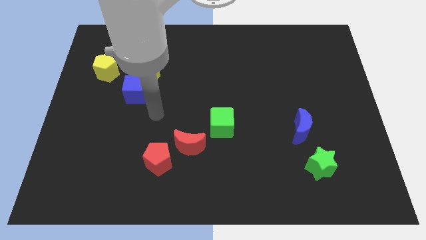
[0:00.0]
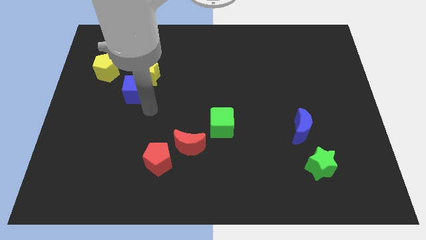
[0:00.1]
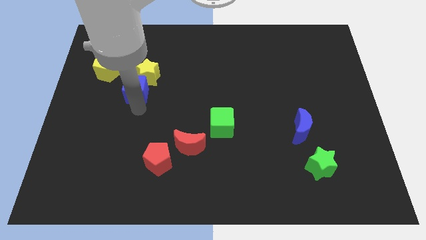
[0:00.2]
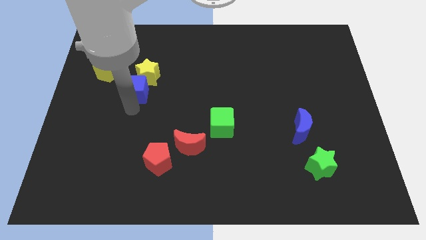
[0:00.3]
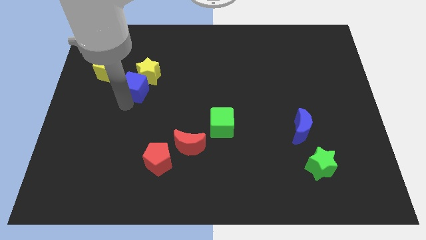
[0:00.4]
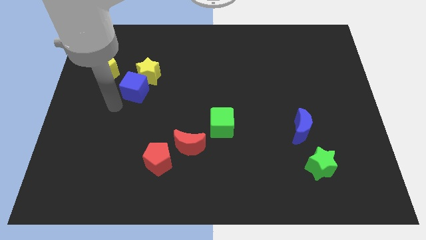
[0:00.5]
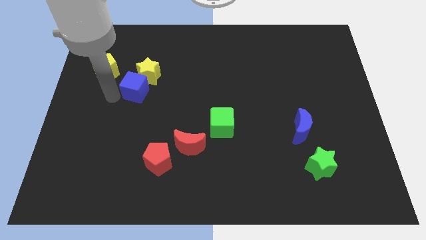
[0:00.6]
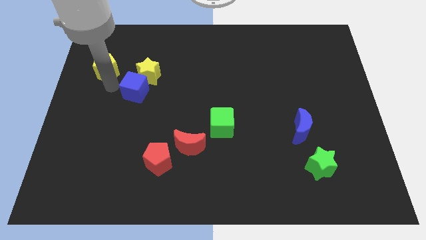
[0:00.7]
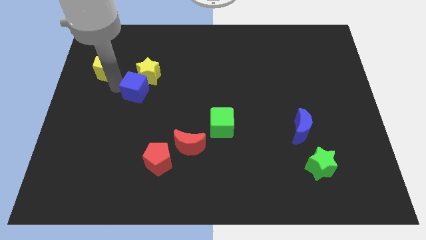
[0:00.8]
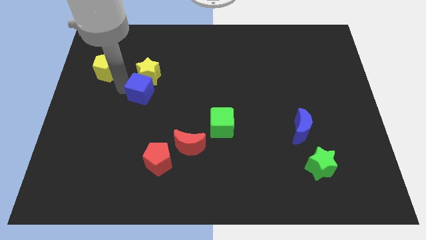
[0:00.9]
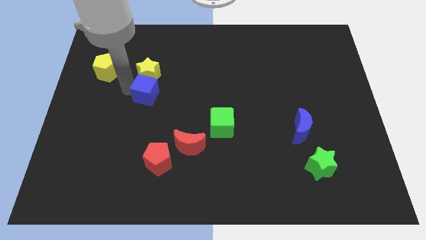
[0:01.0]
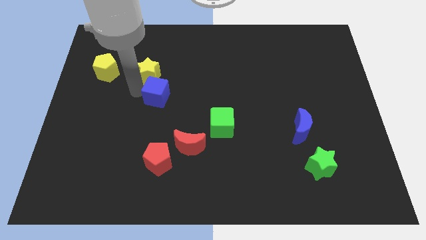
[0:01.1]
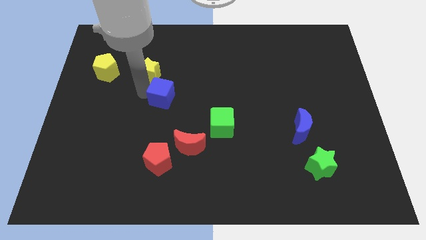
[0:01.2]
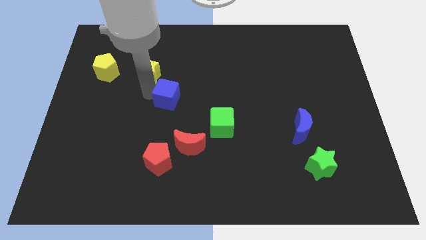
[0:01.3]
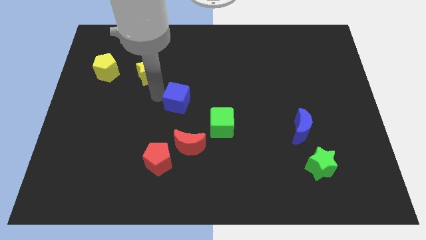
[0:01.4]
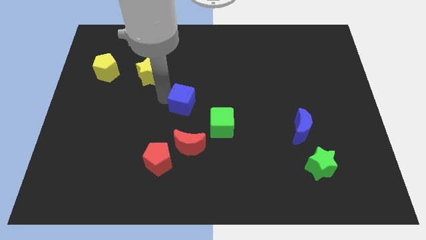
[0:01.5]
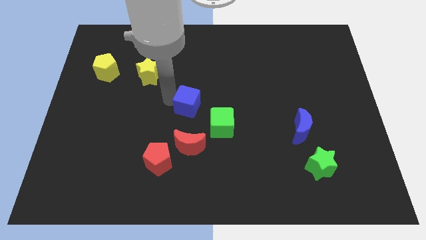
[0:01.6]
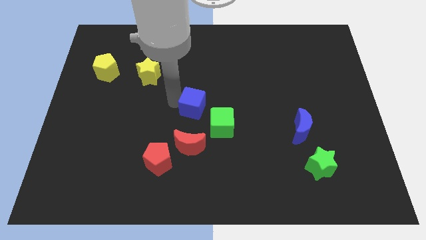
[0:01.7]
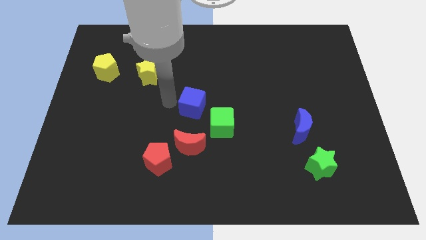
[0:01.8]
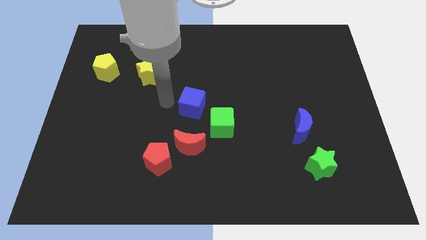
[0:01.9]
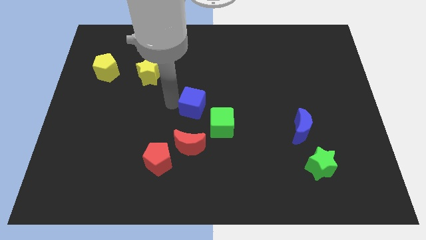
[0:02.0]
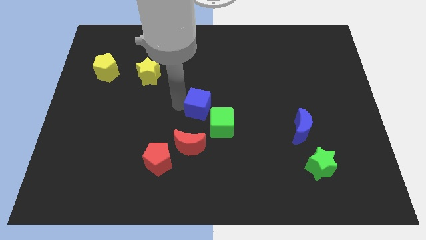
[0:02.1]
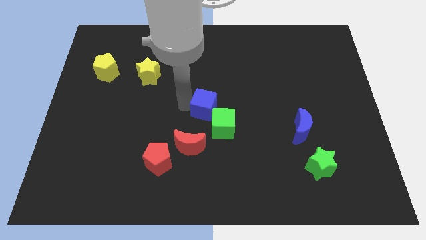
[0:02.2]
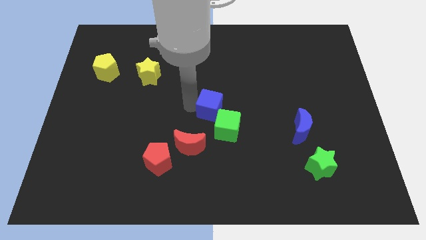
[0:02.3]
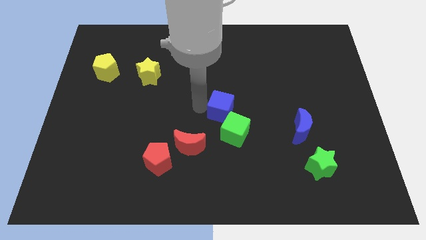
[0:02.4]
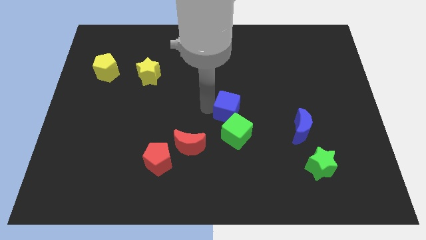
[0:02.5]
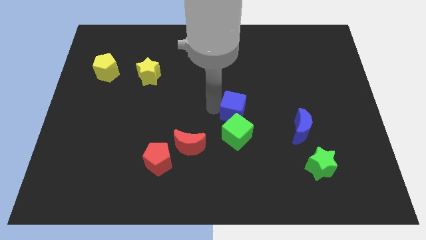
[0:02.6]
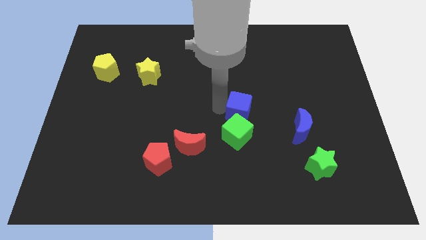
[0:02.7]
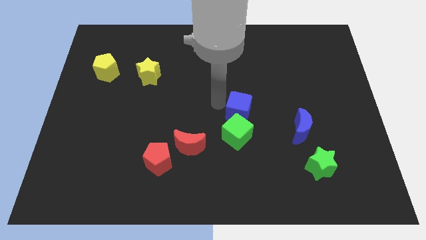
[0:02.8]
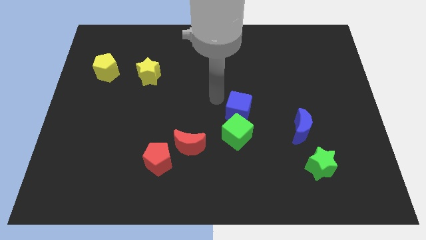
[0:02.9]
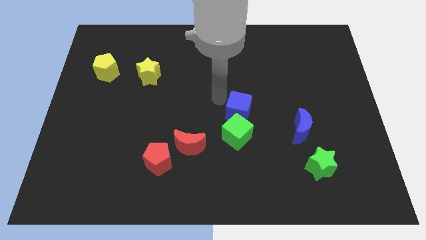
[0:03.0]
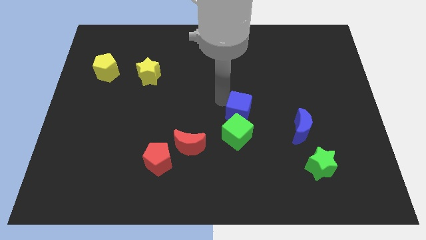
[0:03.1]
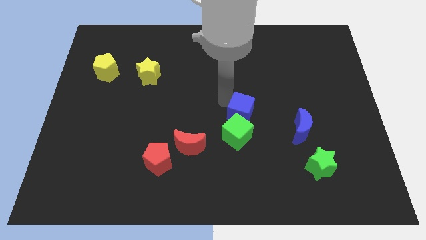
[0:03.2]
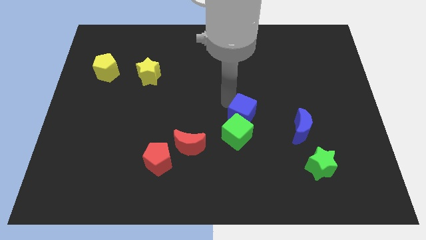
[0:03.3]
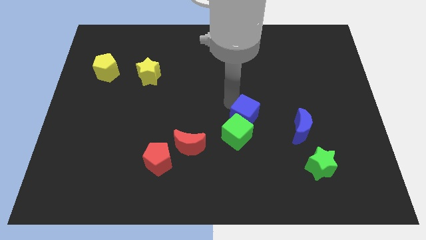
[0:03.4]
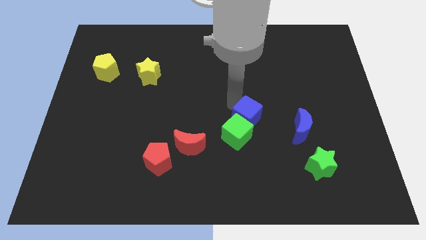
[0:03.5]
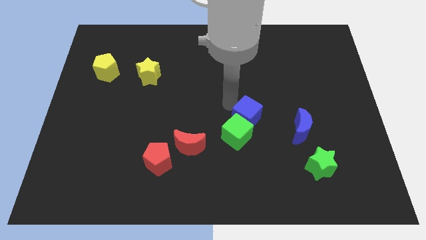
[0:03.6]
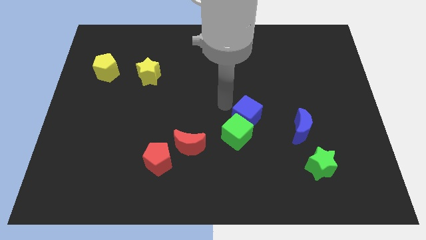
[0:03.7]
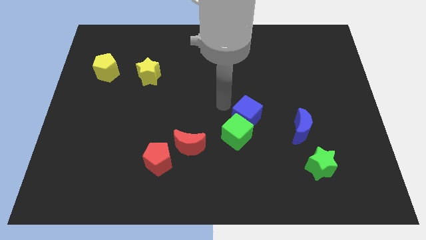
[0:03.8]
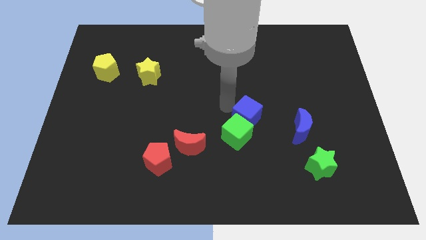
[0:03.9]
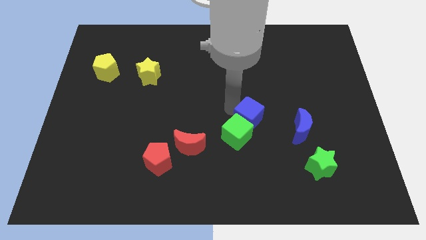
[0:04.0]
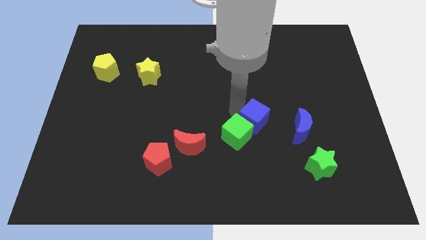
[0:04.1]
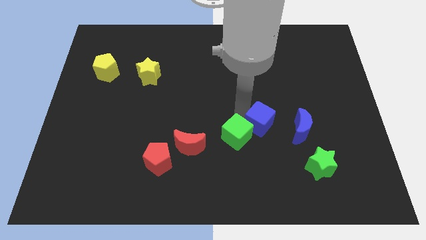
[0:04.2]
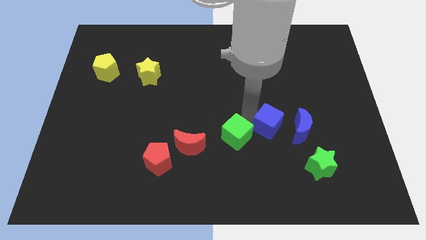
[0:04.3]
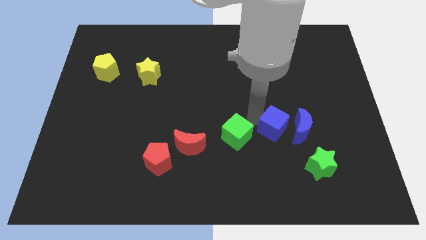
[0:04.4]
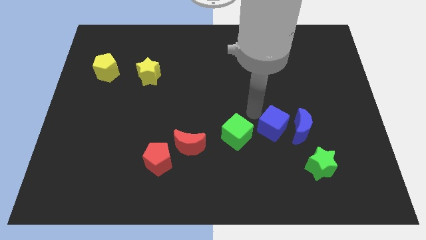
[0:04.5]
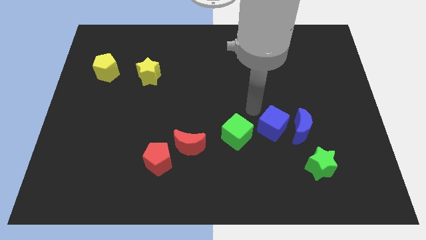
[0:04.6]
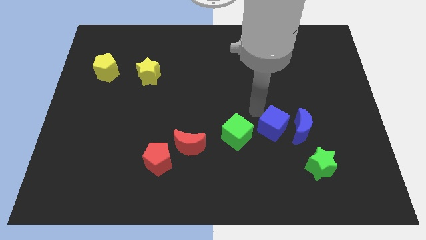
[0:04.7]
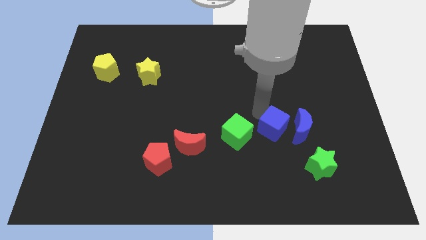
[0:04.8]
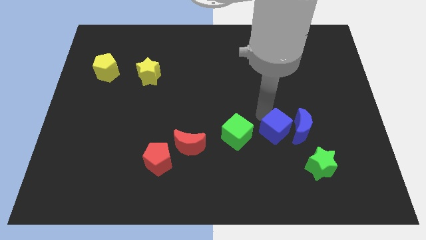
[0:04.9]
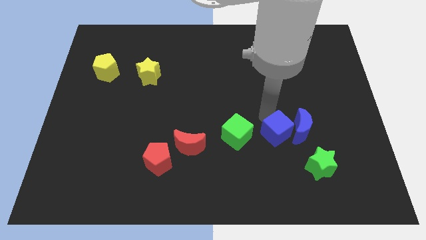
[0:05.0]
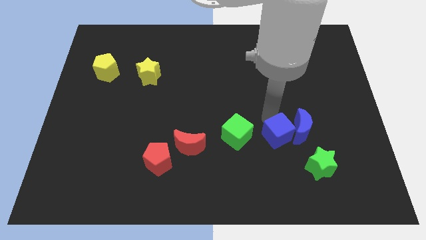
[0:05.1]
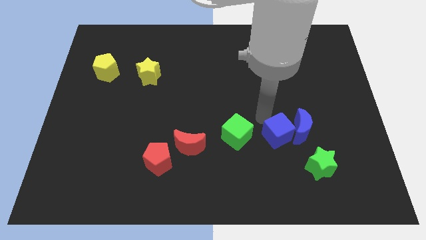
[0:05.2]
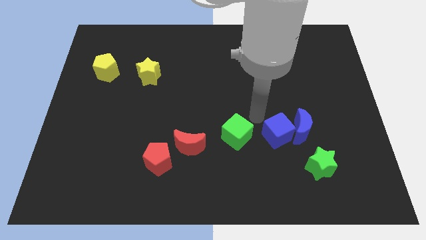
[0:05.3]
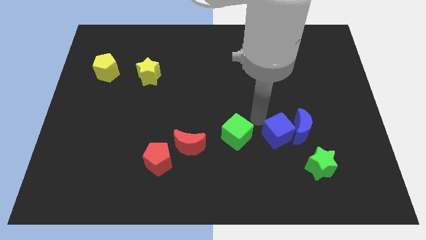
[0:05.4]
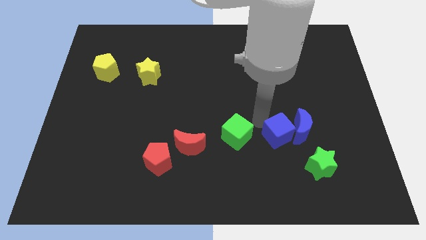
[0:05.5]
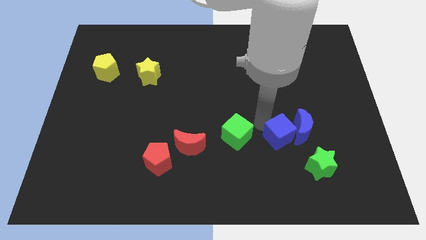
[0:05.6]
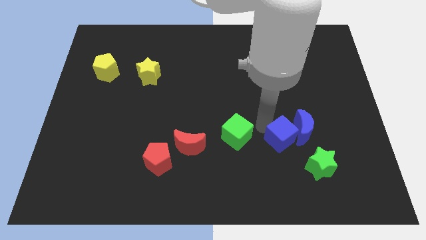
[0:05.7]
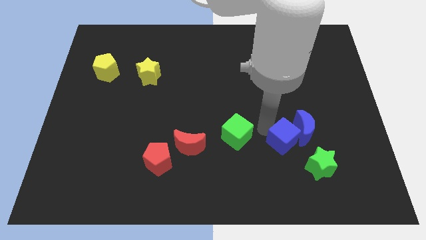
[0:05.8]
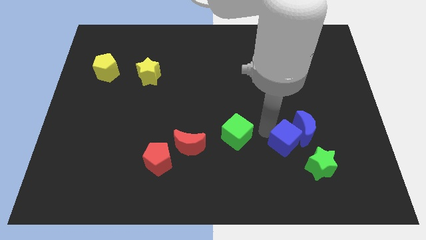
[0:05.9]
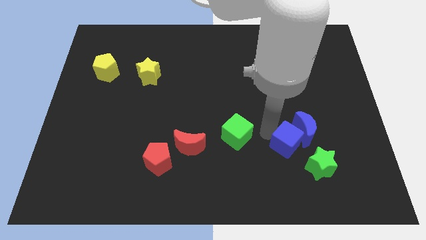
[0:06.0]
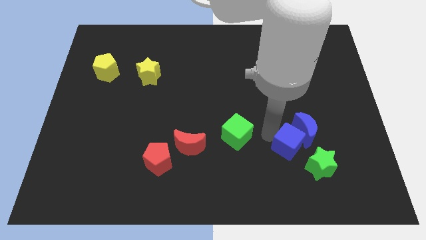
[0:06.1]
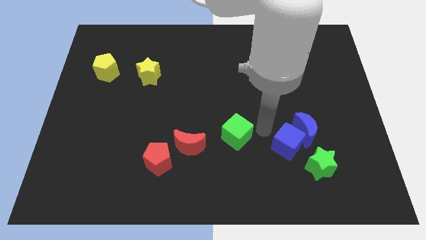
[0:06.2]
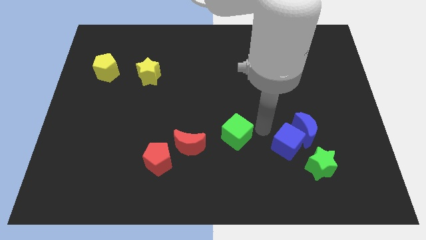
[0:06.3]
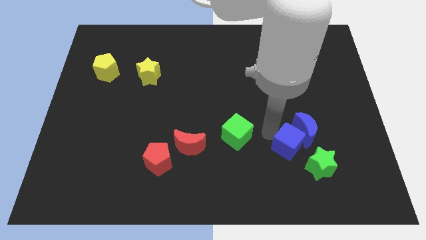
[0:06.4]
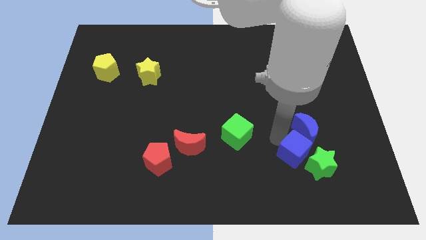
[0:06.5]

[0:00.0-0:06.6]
slide the blue cube towards the green star

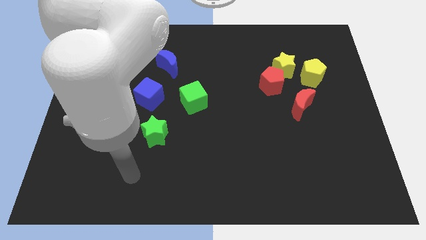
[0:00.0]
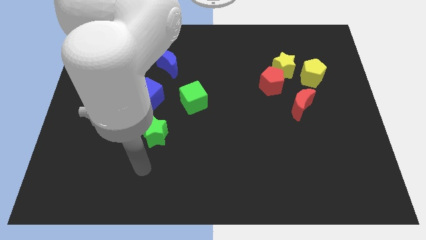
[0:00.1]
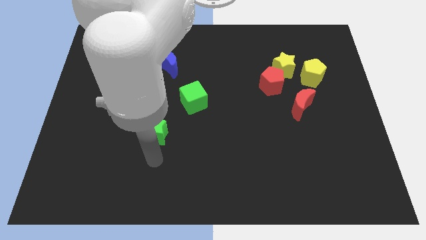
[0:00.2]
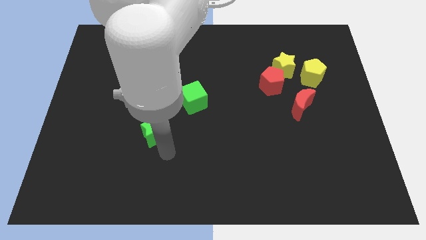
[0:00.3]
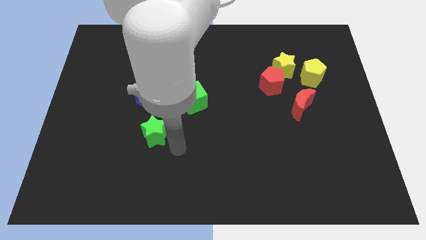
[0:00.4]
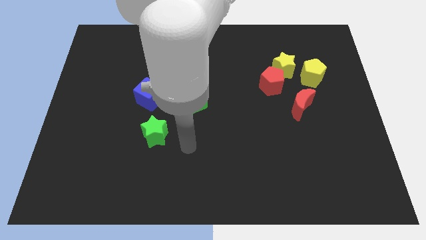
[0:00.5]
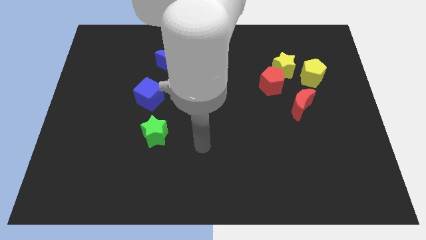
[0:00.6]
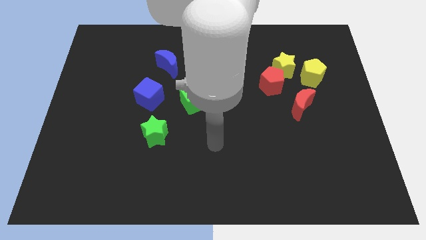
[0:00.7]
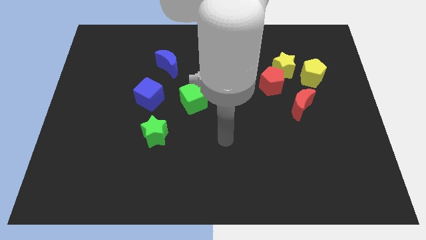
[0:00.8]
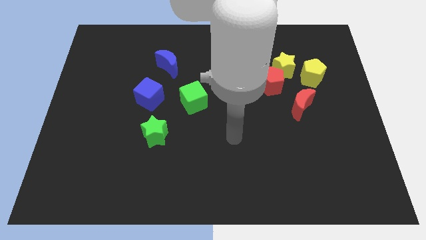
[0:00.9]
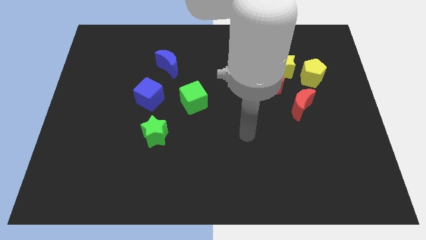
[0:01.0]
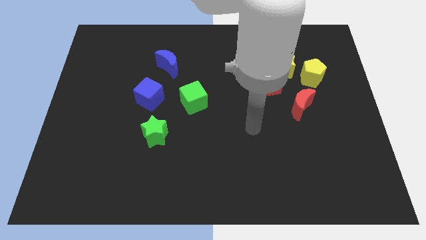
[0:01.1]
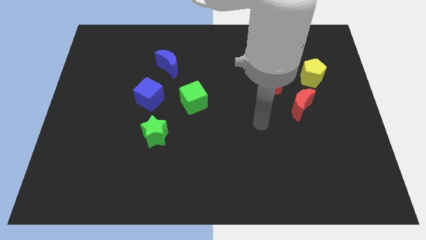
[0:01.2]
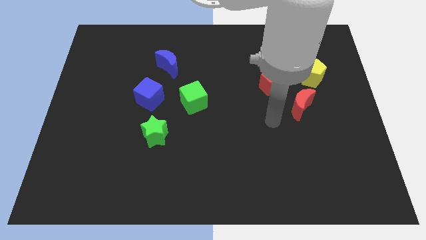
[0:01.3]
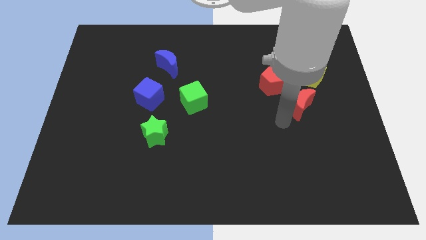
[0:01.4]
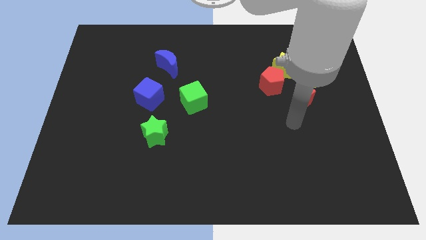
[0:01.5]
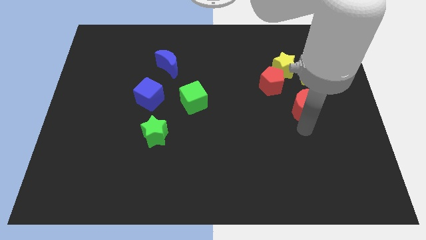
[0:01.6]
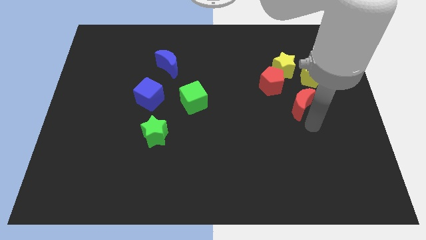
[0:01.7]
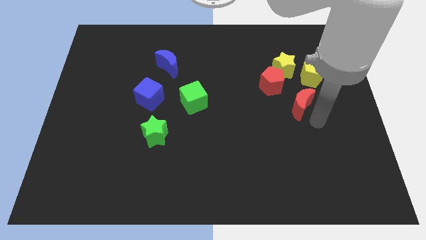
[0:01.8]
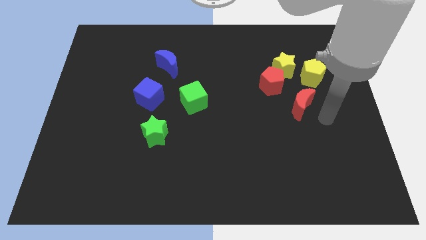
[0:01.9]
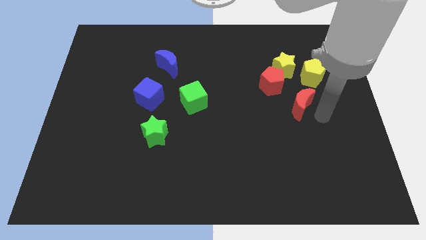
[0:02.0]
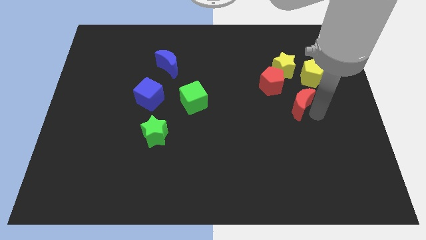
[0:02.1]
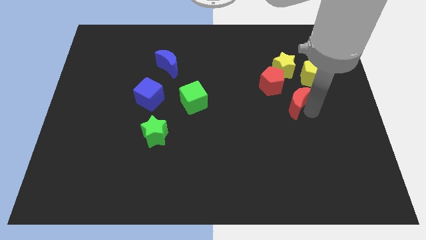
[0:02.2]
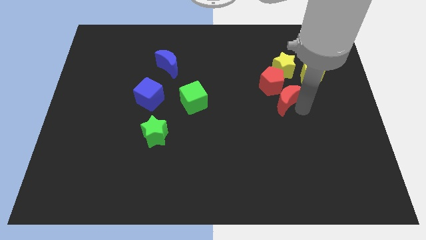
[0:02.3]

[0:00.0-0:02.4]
push the red moon close to the red pentagon
